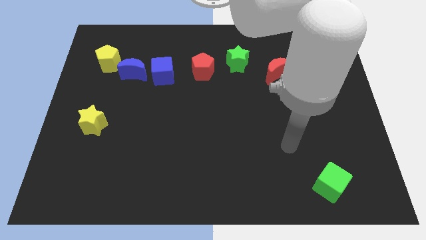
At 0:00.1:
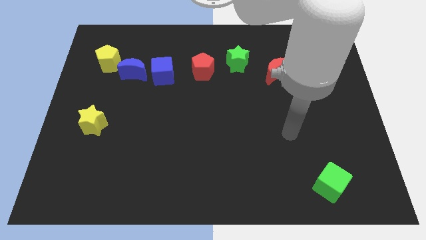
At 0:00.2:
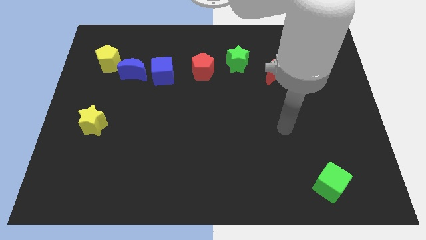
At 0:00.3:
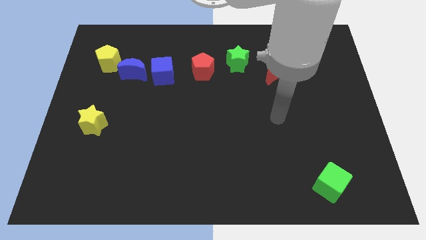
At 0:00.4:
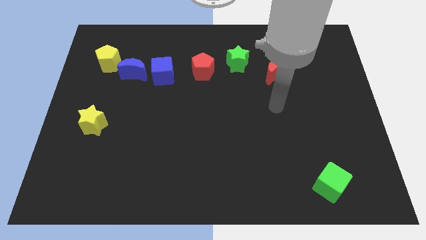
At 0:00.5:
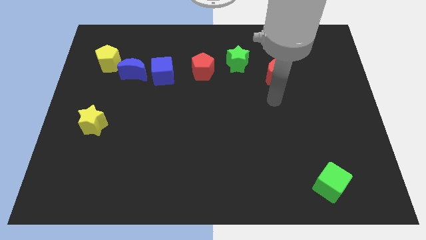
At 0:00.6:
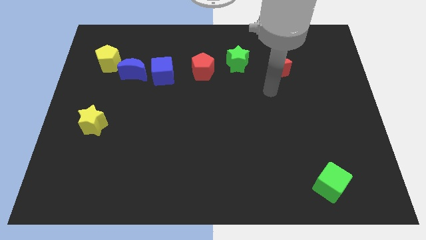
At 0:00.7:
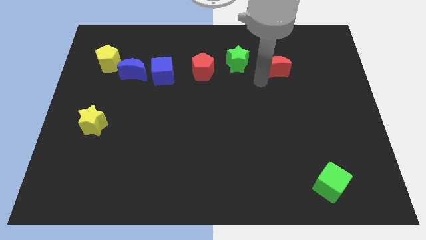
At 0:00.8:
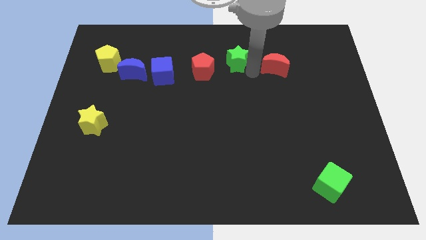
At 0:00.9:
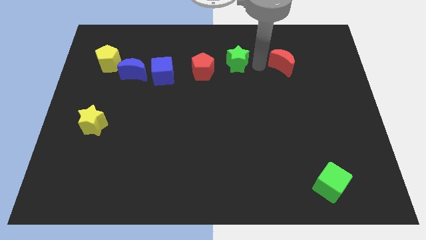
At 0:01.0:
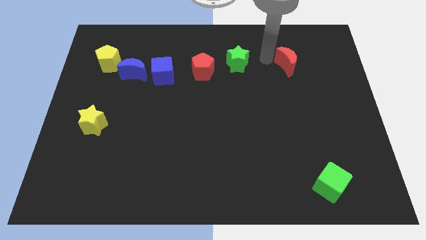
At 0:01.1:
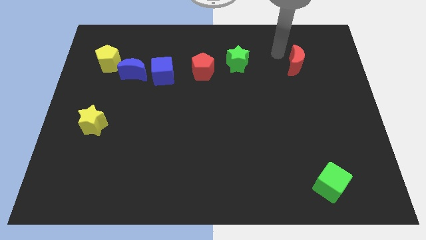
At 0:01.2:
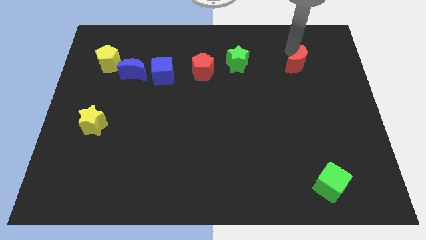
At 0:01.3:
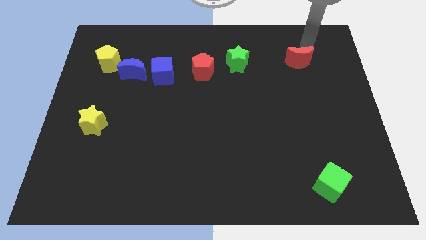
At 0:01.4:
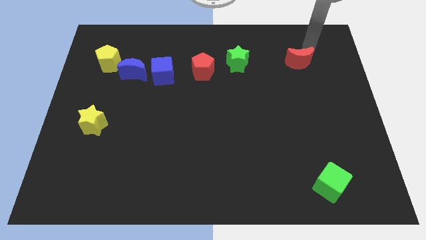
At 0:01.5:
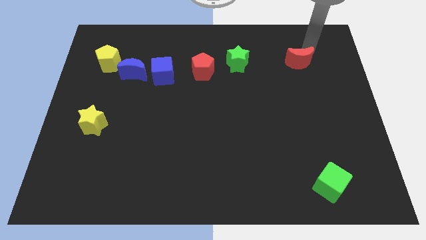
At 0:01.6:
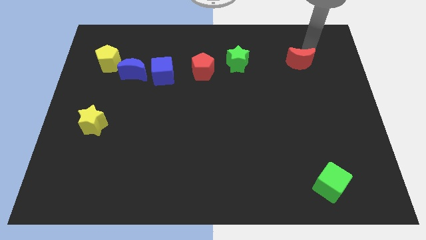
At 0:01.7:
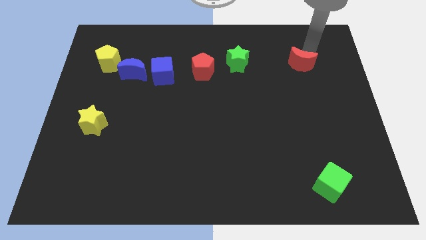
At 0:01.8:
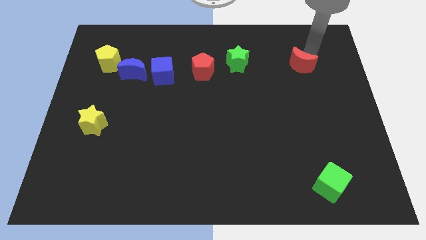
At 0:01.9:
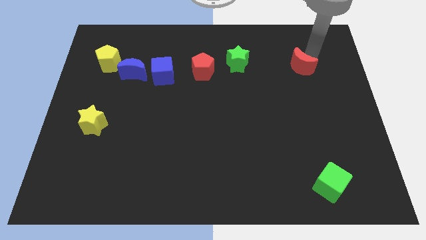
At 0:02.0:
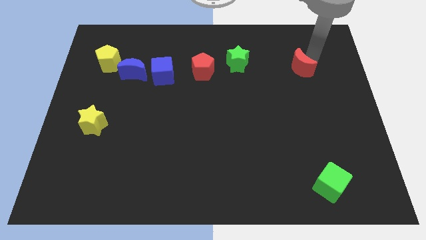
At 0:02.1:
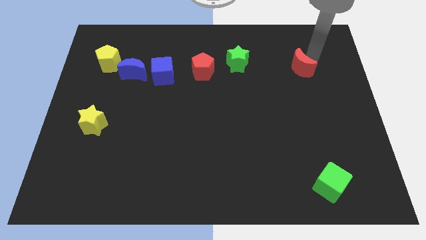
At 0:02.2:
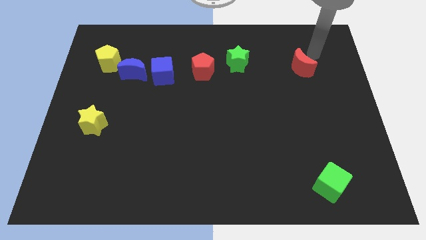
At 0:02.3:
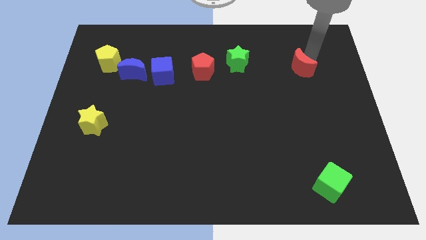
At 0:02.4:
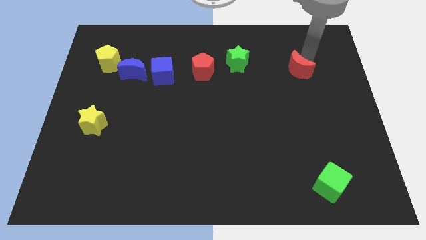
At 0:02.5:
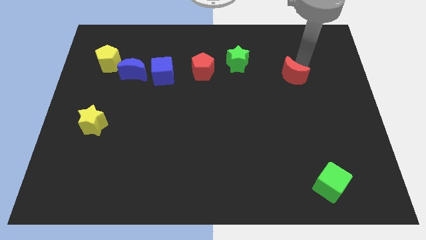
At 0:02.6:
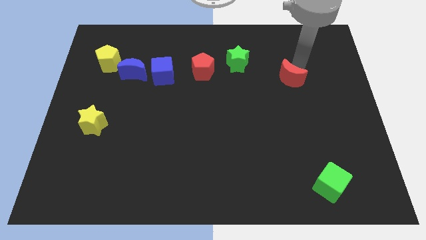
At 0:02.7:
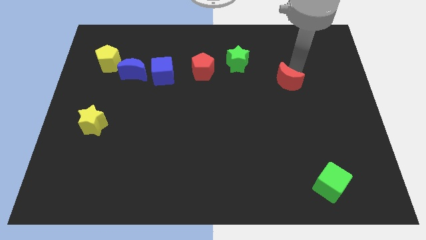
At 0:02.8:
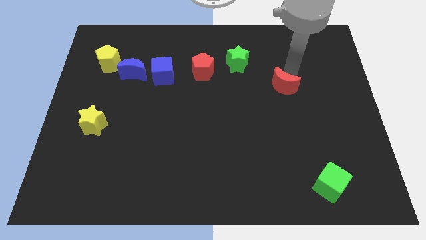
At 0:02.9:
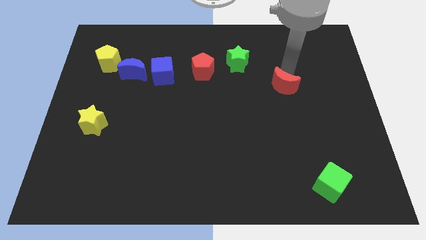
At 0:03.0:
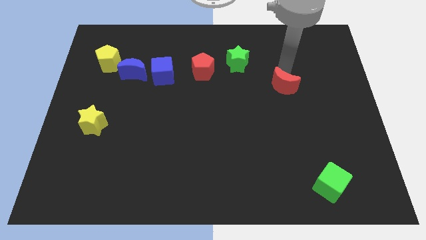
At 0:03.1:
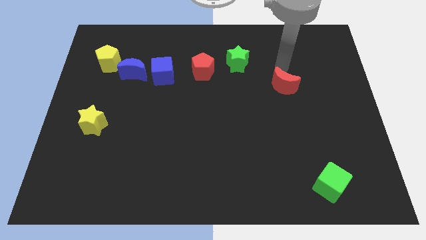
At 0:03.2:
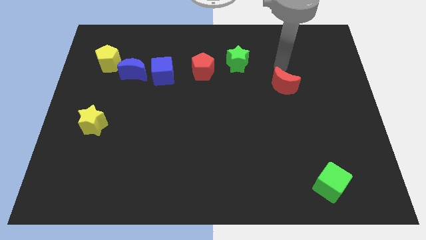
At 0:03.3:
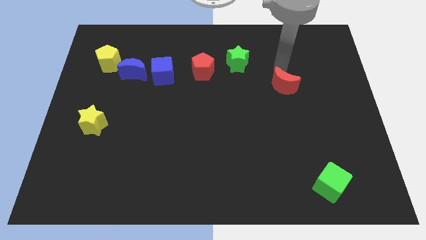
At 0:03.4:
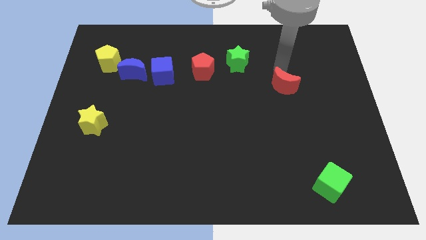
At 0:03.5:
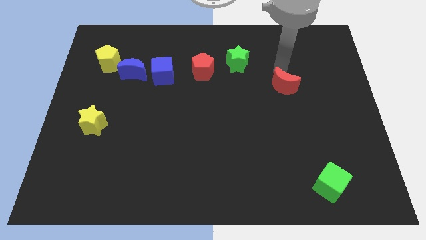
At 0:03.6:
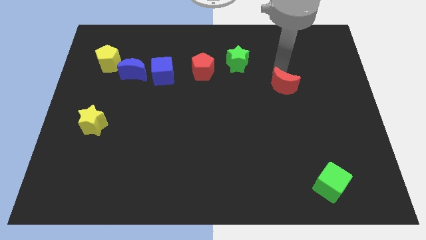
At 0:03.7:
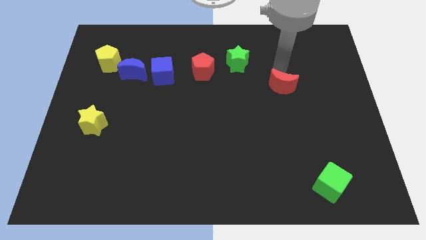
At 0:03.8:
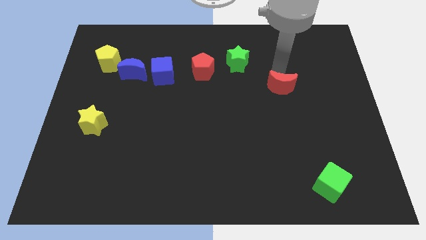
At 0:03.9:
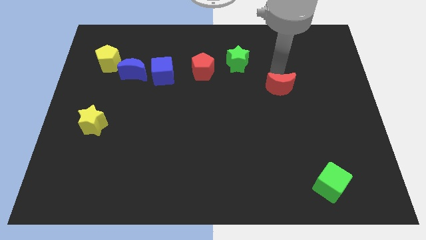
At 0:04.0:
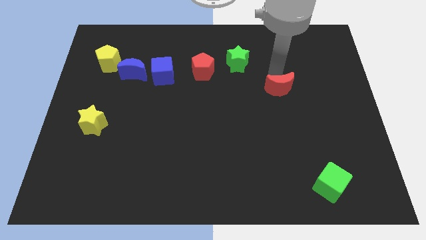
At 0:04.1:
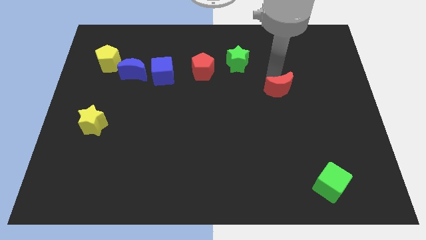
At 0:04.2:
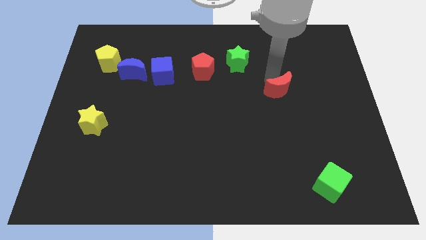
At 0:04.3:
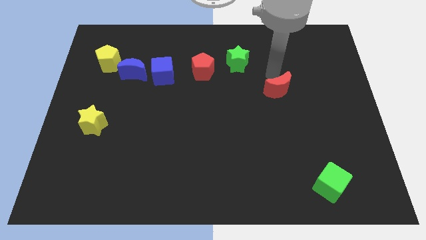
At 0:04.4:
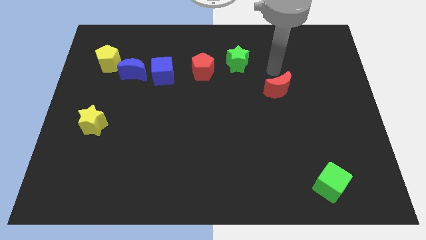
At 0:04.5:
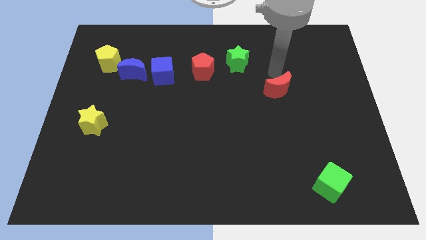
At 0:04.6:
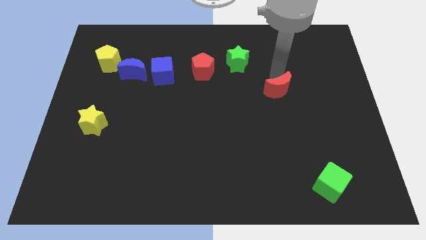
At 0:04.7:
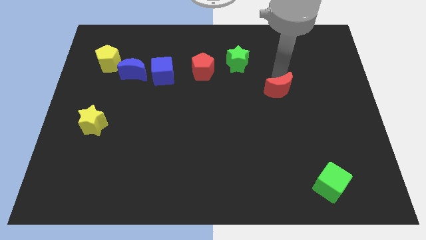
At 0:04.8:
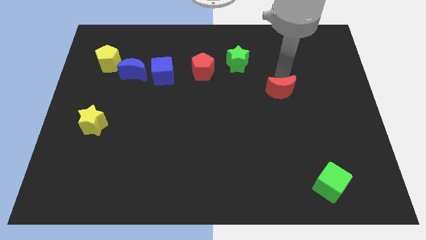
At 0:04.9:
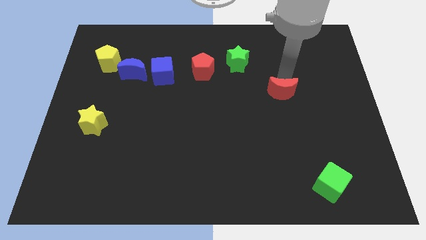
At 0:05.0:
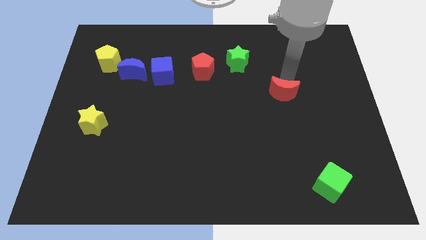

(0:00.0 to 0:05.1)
slide the red moon downwards a little bit

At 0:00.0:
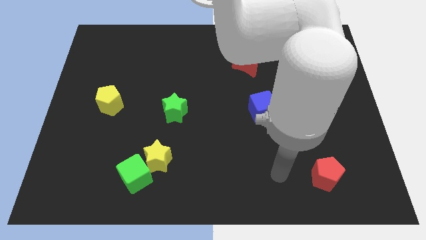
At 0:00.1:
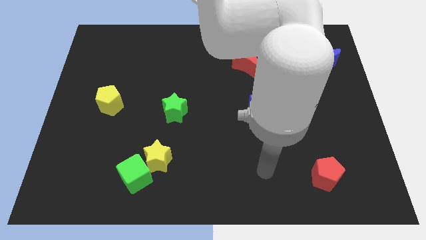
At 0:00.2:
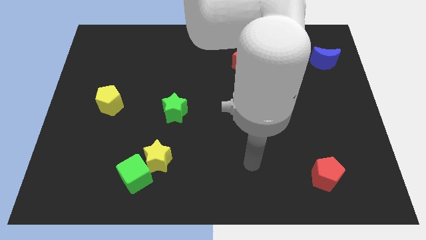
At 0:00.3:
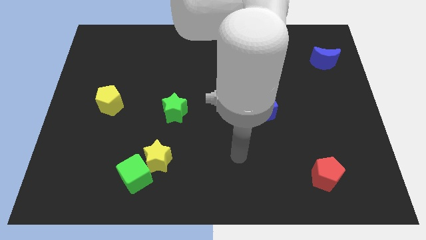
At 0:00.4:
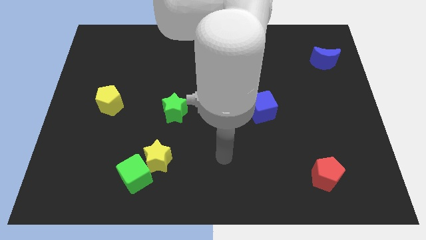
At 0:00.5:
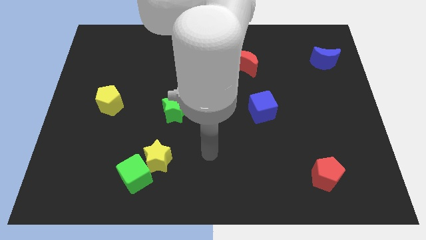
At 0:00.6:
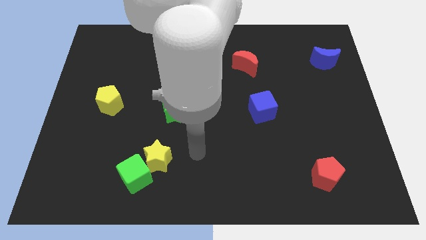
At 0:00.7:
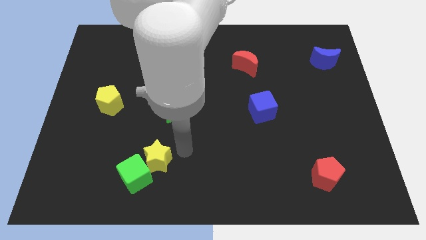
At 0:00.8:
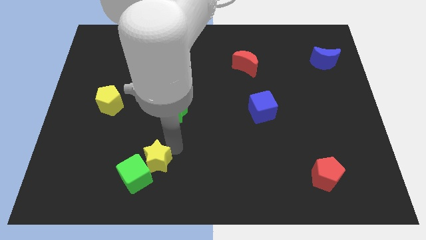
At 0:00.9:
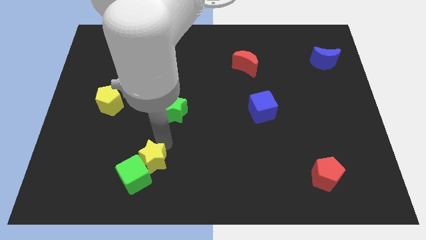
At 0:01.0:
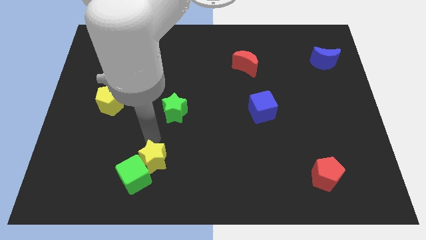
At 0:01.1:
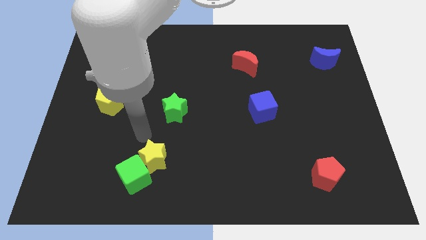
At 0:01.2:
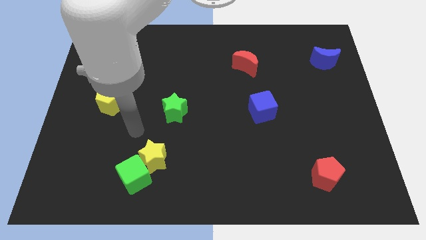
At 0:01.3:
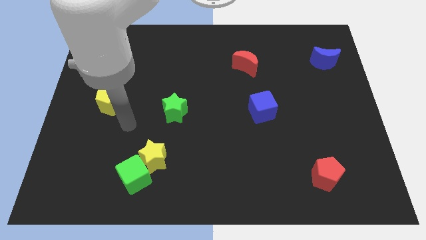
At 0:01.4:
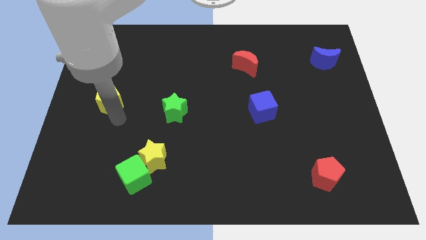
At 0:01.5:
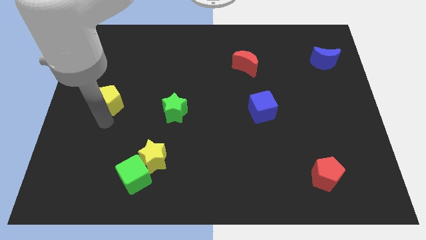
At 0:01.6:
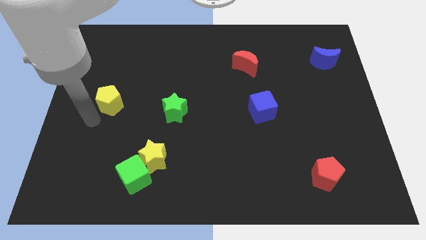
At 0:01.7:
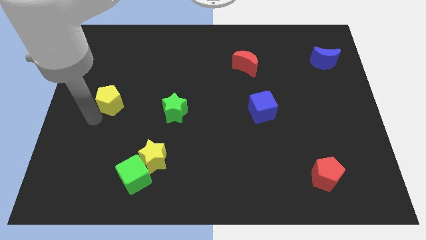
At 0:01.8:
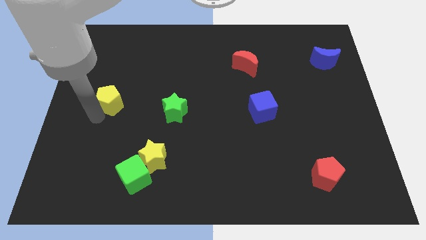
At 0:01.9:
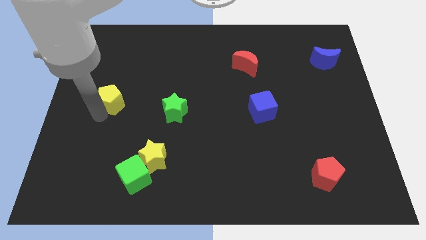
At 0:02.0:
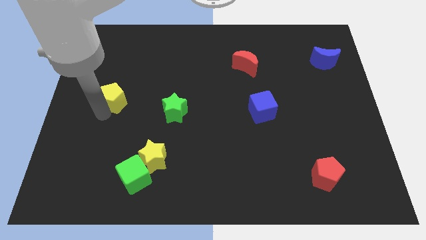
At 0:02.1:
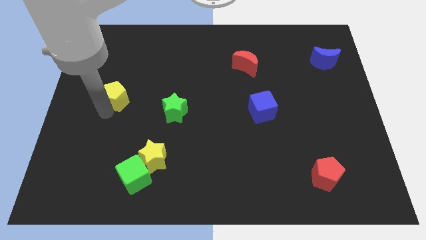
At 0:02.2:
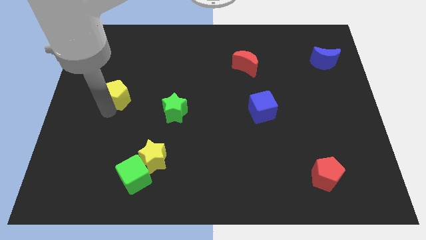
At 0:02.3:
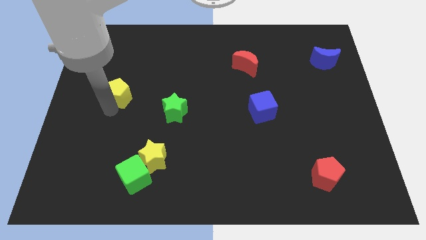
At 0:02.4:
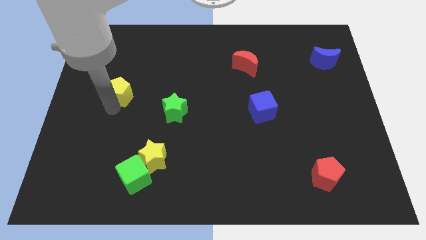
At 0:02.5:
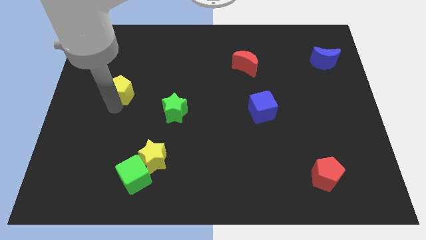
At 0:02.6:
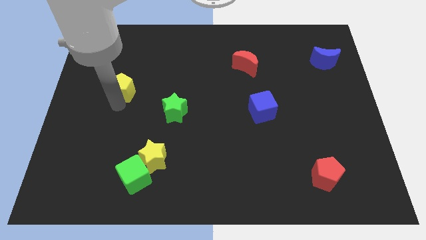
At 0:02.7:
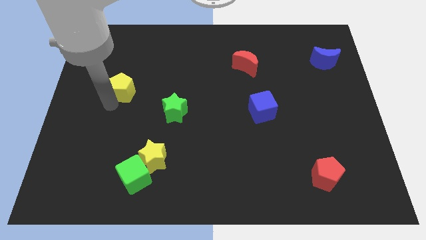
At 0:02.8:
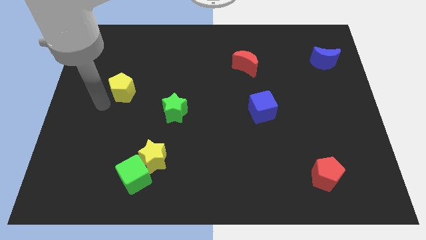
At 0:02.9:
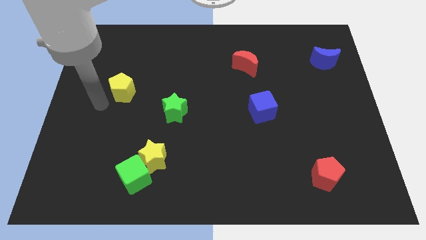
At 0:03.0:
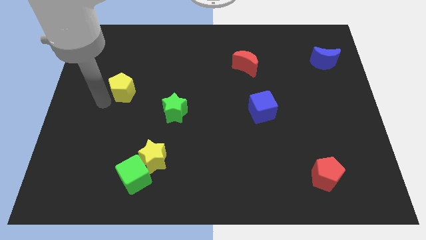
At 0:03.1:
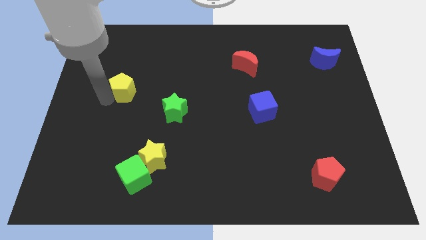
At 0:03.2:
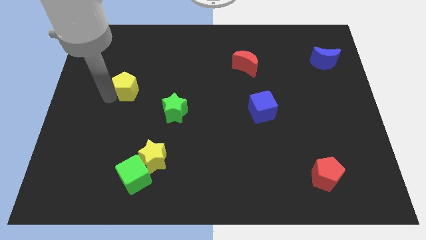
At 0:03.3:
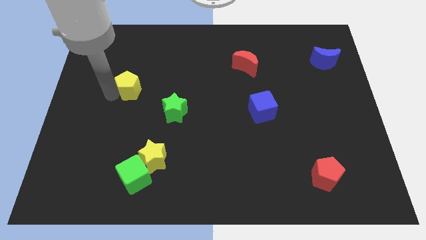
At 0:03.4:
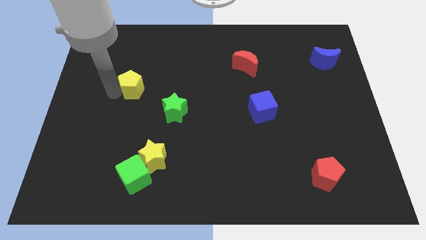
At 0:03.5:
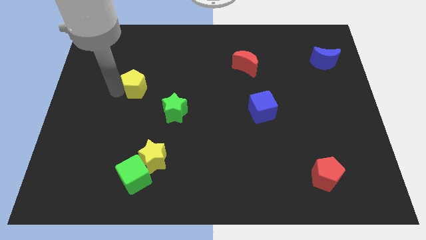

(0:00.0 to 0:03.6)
slightly move the yellow pentagon up and right
